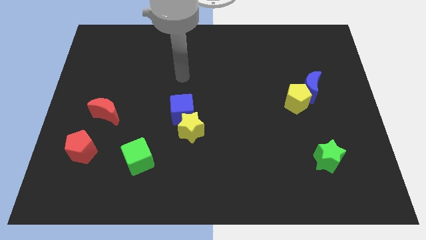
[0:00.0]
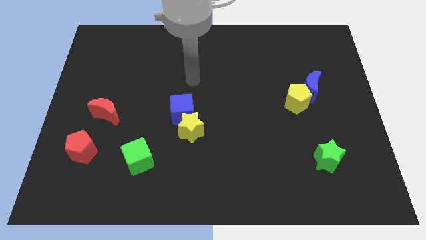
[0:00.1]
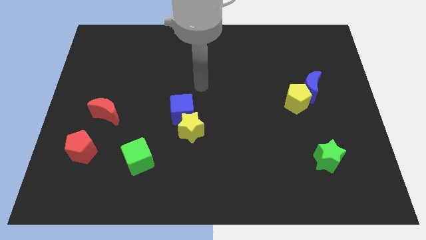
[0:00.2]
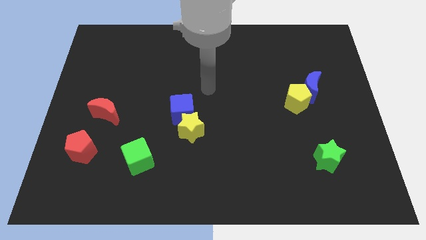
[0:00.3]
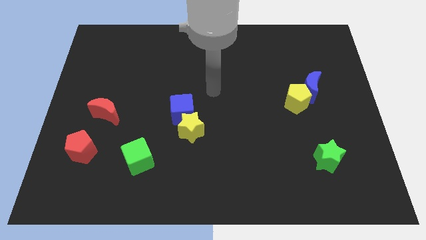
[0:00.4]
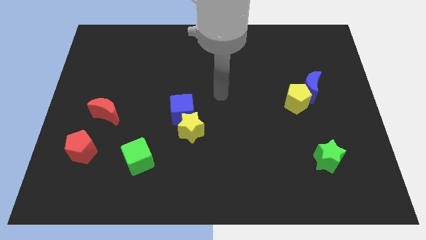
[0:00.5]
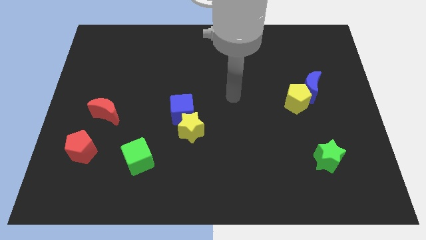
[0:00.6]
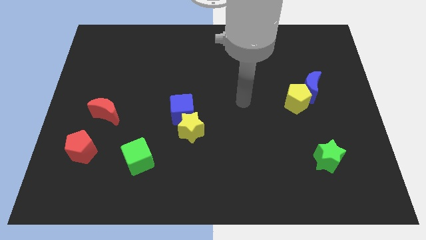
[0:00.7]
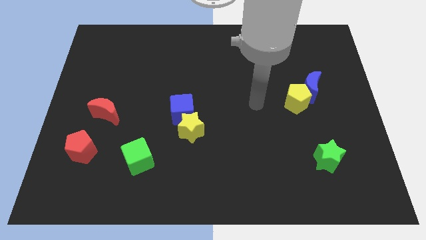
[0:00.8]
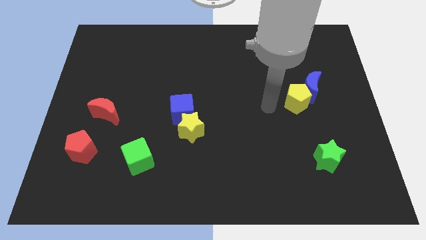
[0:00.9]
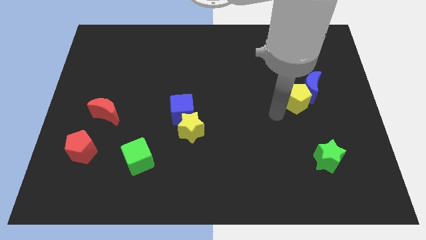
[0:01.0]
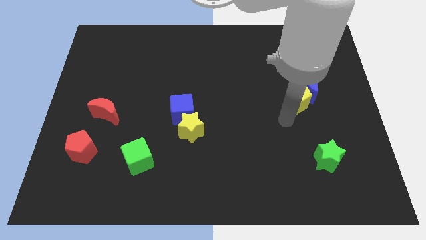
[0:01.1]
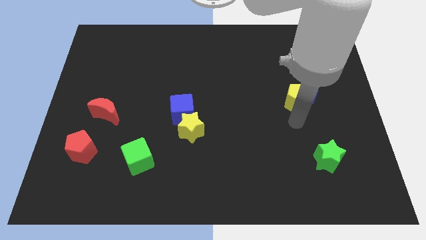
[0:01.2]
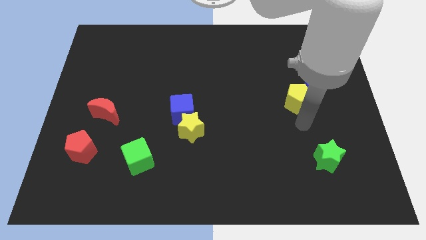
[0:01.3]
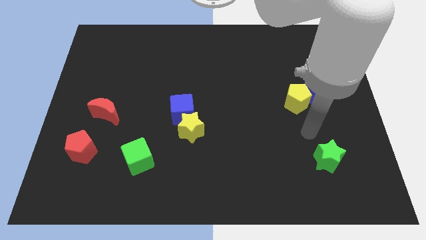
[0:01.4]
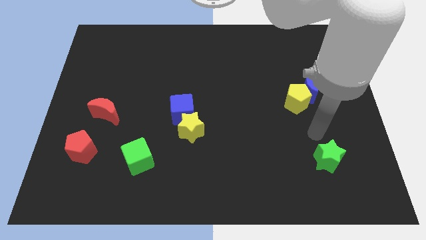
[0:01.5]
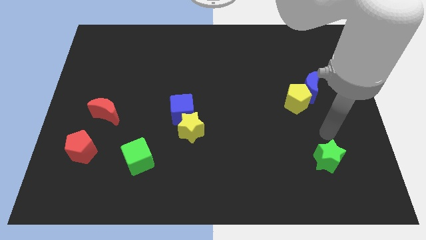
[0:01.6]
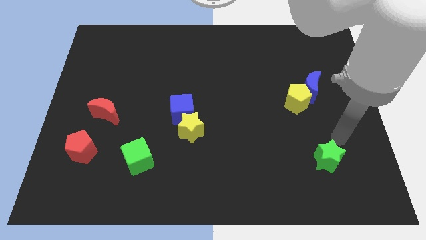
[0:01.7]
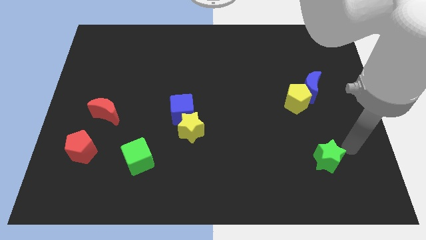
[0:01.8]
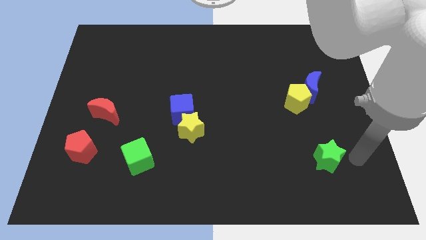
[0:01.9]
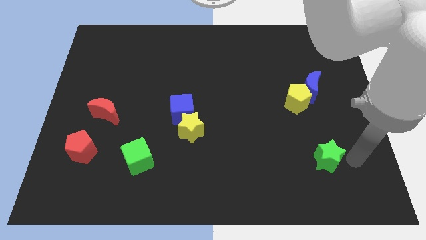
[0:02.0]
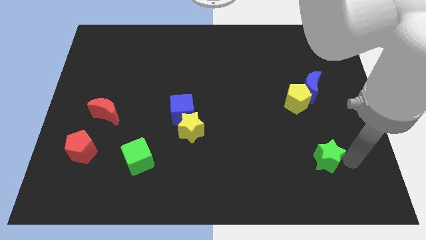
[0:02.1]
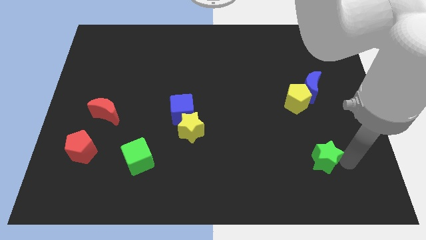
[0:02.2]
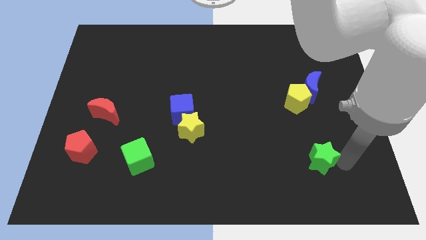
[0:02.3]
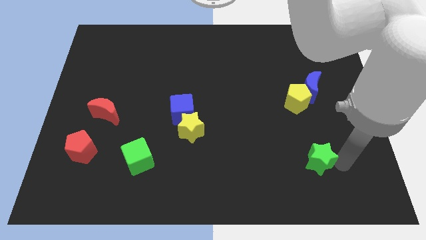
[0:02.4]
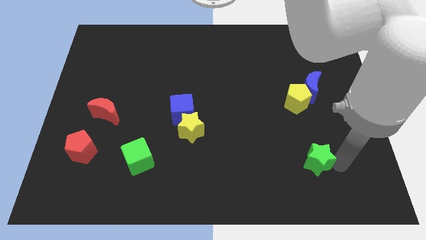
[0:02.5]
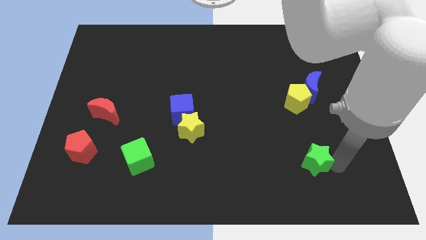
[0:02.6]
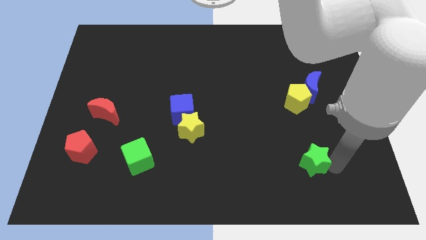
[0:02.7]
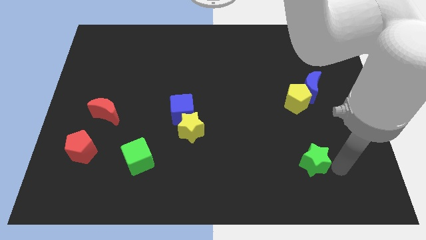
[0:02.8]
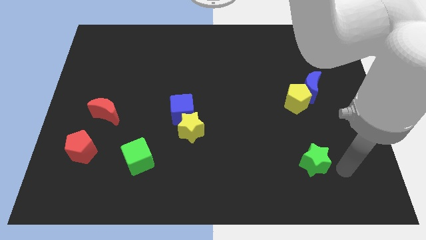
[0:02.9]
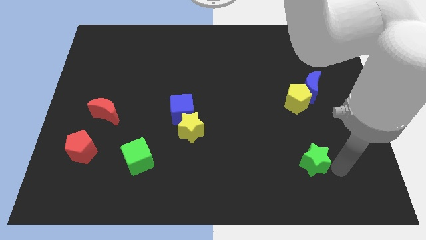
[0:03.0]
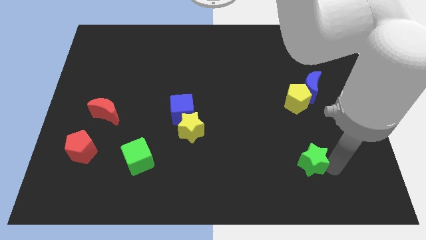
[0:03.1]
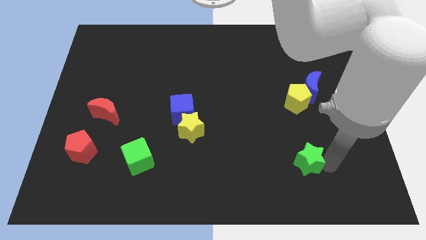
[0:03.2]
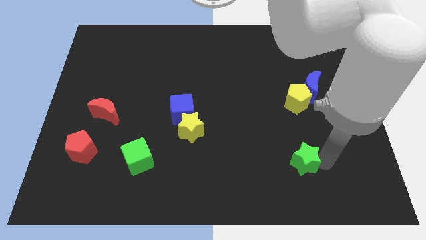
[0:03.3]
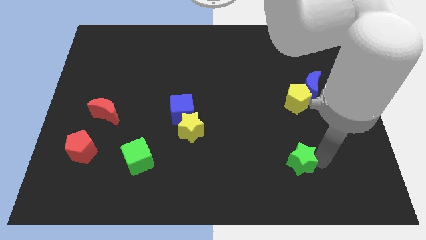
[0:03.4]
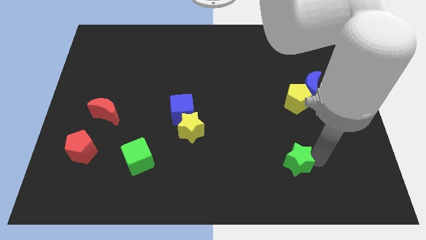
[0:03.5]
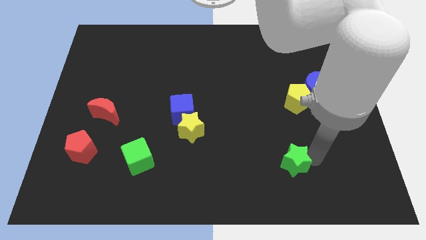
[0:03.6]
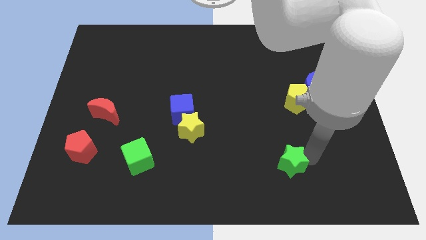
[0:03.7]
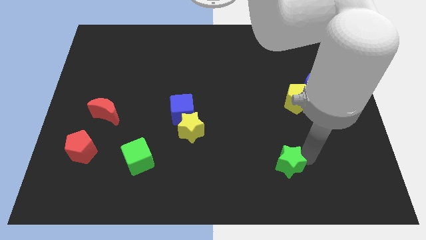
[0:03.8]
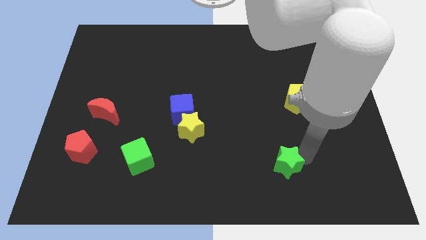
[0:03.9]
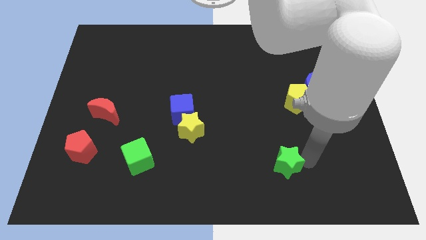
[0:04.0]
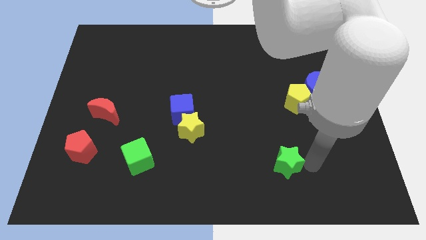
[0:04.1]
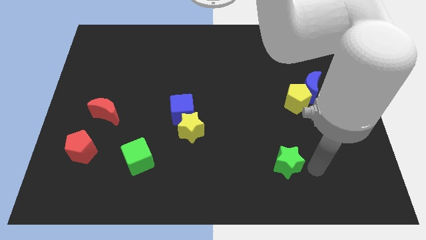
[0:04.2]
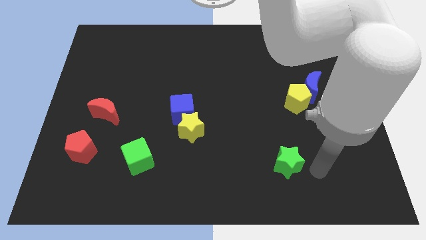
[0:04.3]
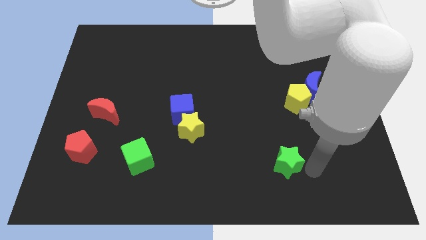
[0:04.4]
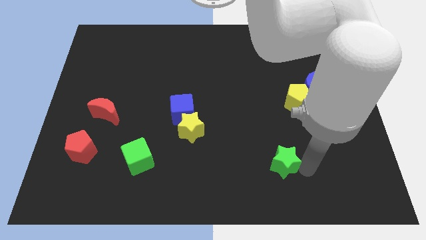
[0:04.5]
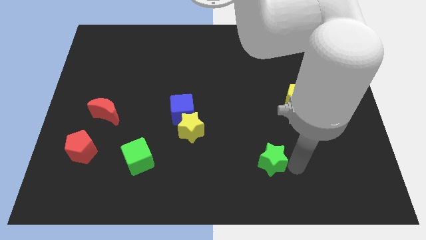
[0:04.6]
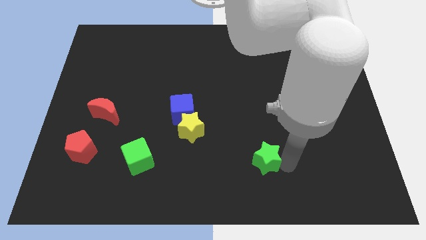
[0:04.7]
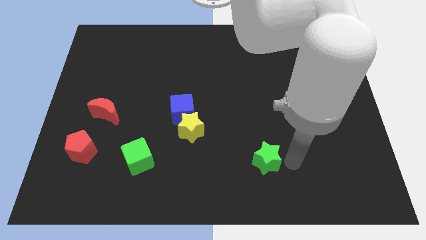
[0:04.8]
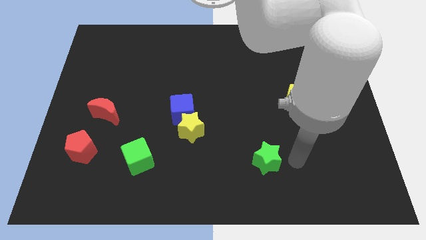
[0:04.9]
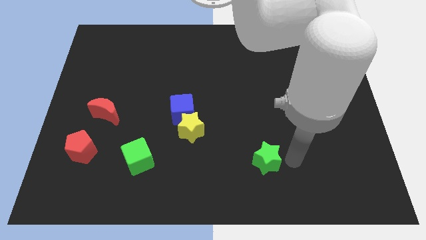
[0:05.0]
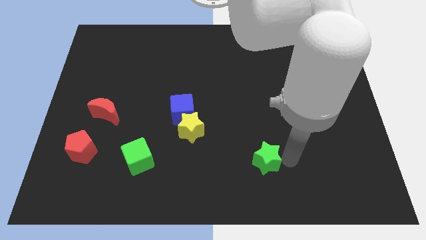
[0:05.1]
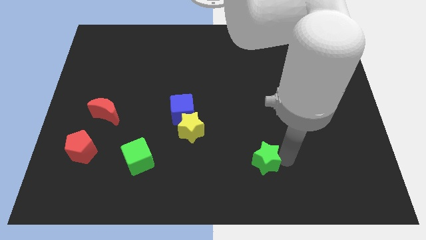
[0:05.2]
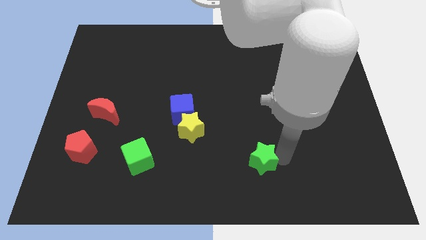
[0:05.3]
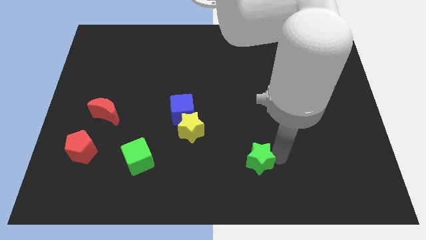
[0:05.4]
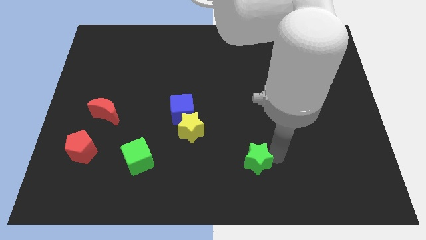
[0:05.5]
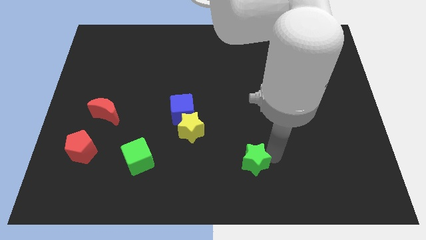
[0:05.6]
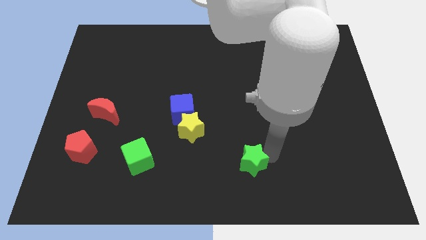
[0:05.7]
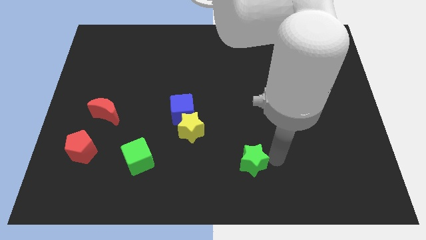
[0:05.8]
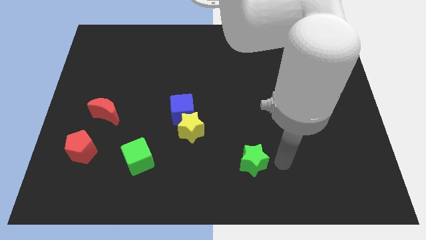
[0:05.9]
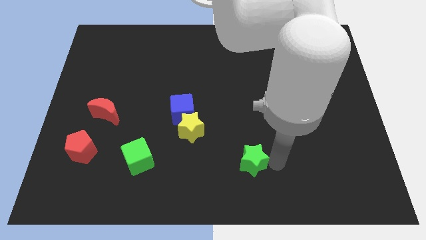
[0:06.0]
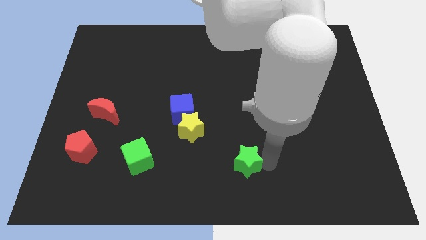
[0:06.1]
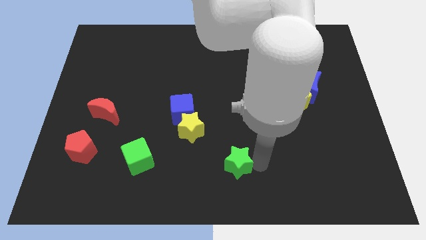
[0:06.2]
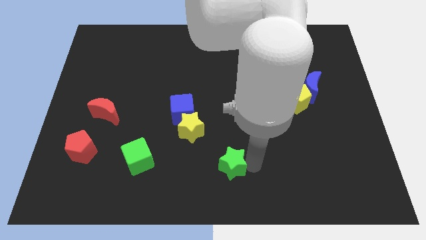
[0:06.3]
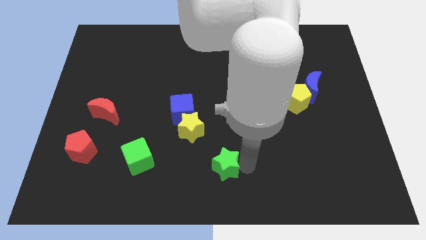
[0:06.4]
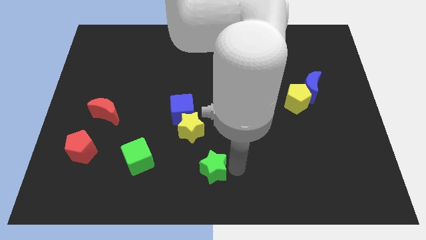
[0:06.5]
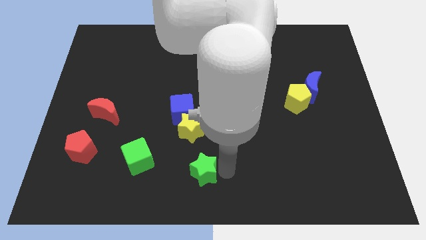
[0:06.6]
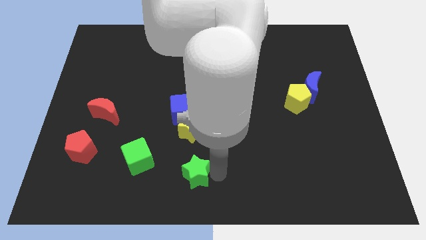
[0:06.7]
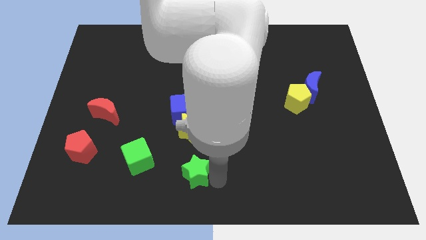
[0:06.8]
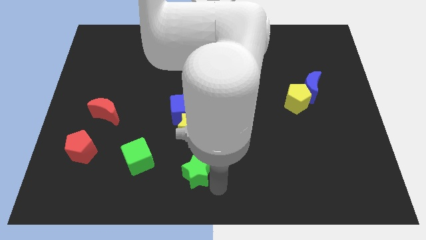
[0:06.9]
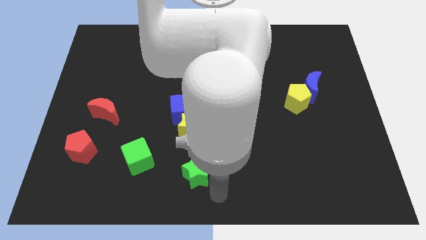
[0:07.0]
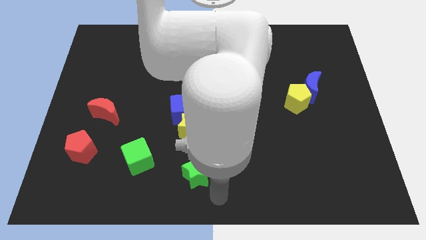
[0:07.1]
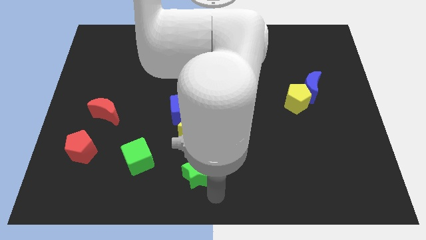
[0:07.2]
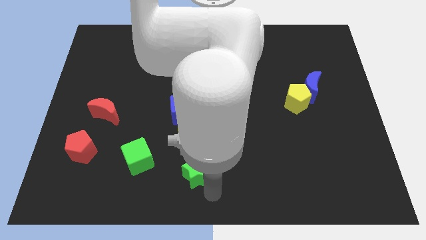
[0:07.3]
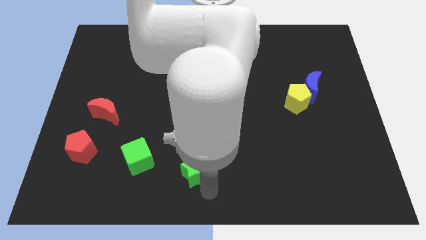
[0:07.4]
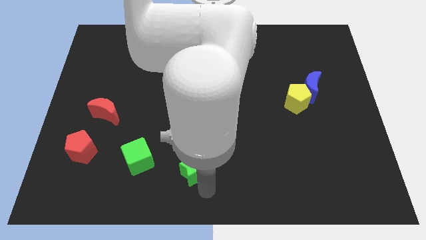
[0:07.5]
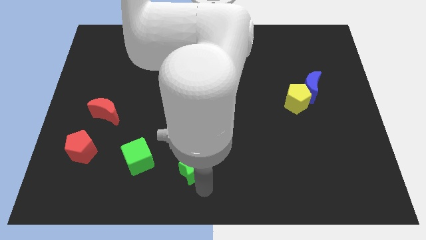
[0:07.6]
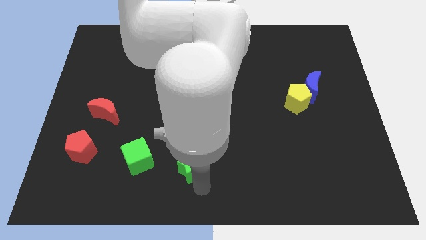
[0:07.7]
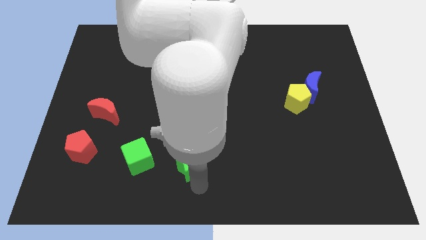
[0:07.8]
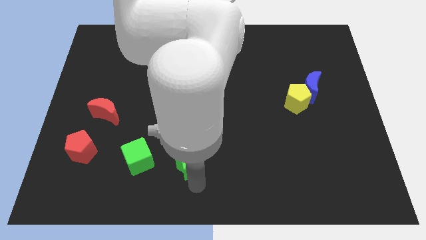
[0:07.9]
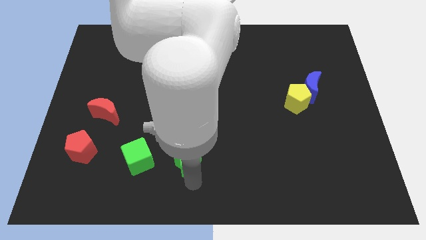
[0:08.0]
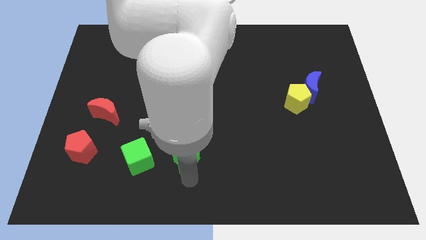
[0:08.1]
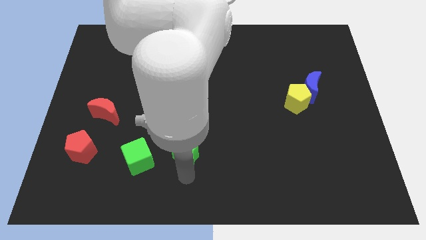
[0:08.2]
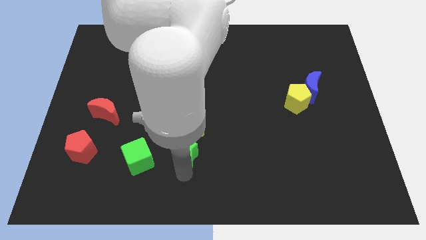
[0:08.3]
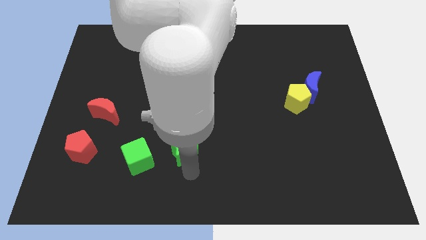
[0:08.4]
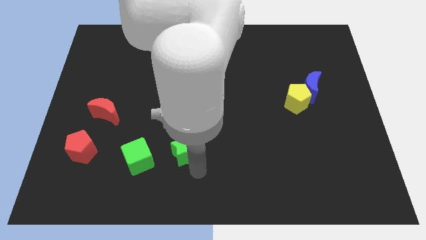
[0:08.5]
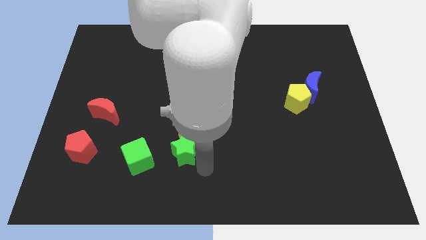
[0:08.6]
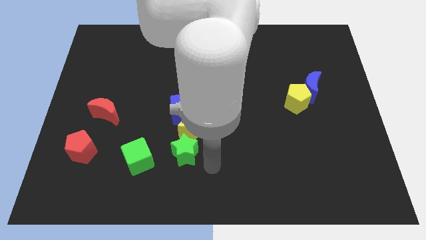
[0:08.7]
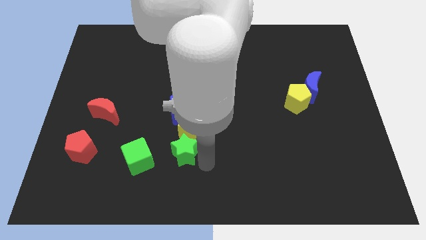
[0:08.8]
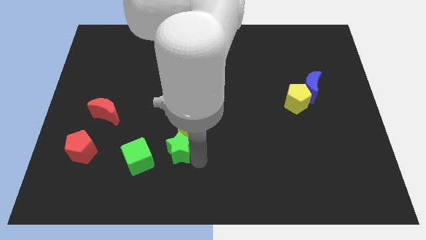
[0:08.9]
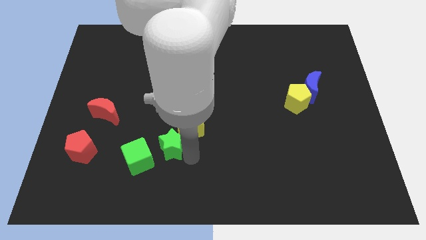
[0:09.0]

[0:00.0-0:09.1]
push the green star to the left side of the yellow star
